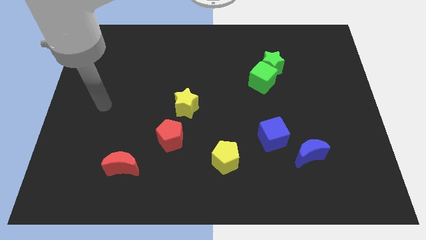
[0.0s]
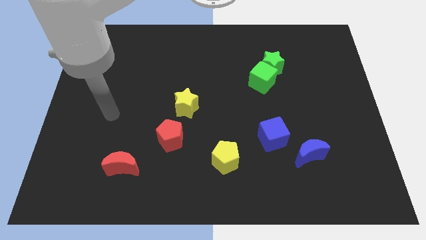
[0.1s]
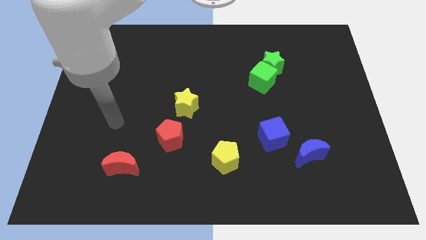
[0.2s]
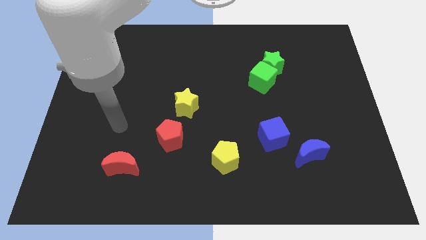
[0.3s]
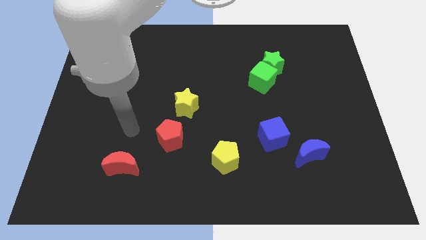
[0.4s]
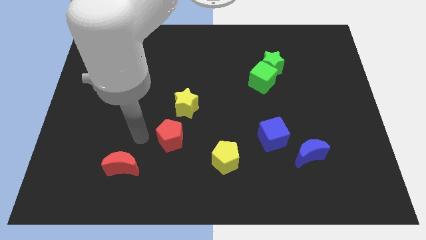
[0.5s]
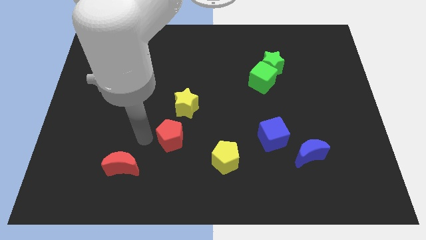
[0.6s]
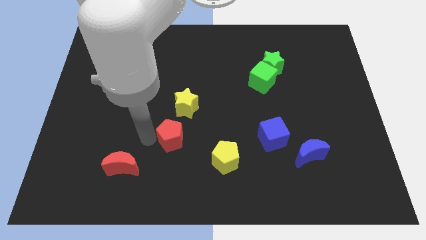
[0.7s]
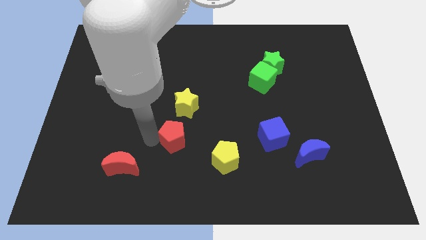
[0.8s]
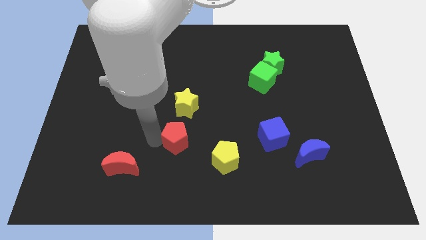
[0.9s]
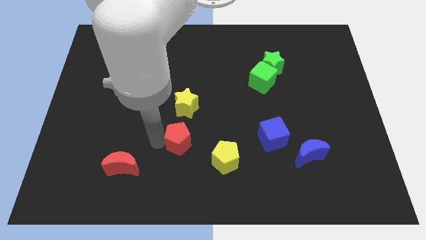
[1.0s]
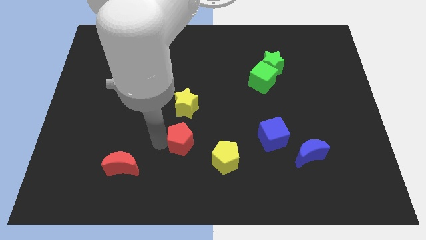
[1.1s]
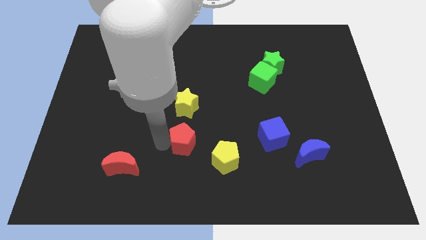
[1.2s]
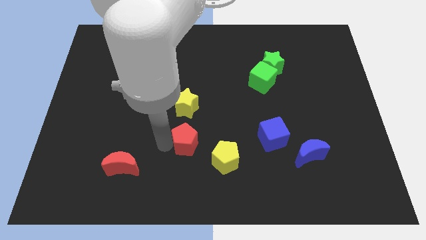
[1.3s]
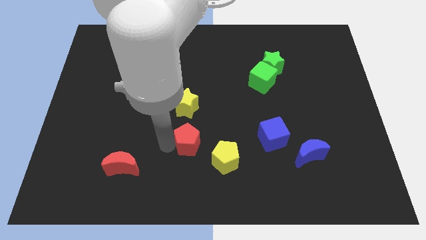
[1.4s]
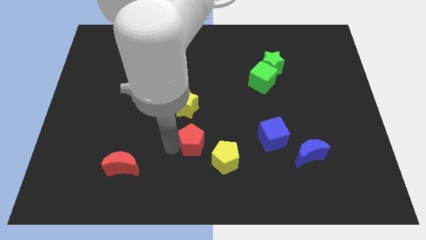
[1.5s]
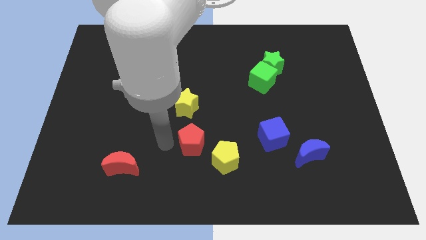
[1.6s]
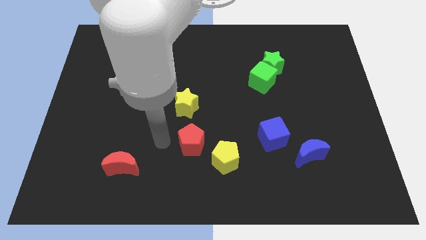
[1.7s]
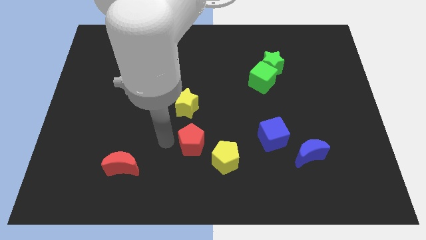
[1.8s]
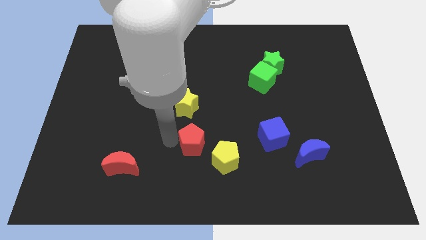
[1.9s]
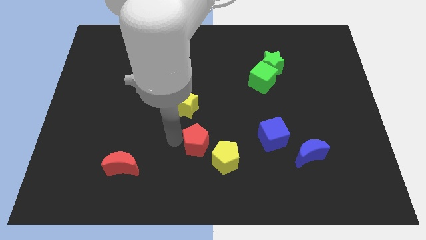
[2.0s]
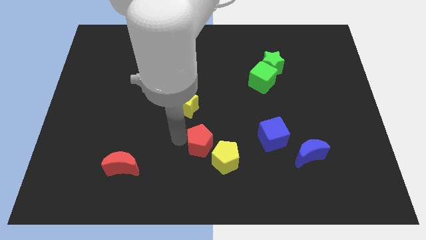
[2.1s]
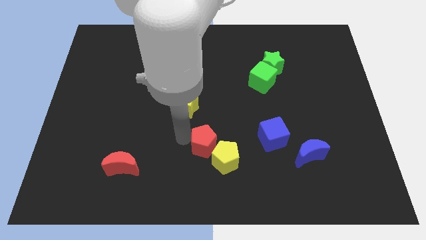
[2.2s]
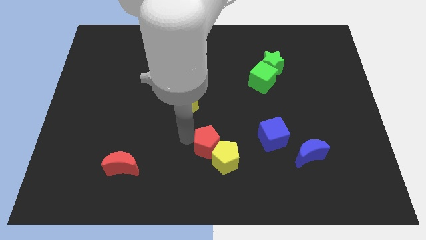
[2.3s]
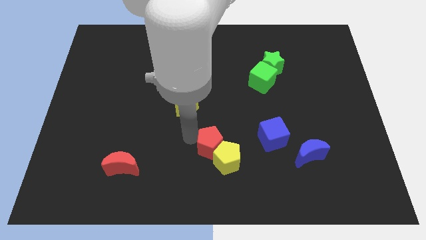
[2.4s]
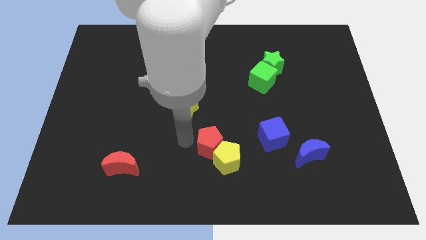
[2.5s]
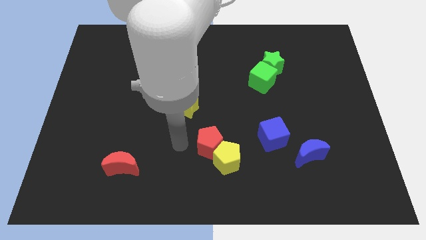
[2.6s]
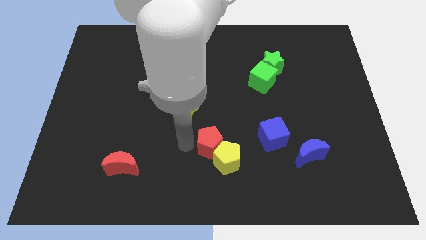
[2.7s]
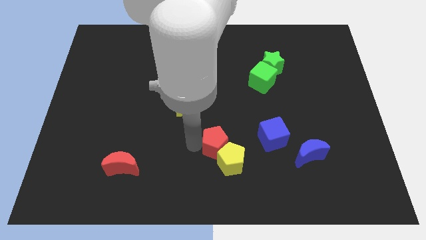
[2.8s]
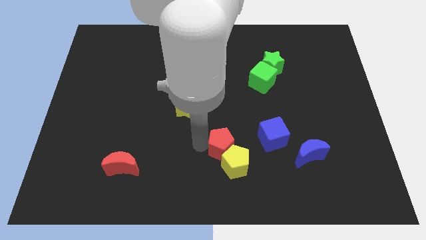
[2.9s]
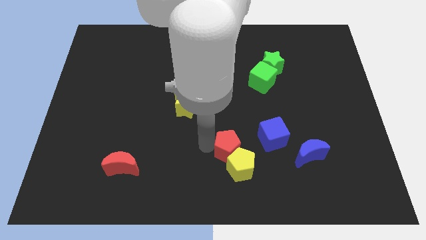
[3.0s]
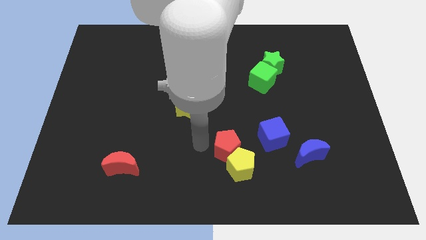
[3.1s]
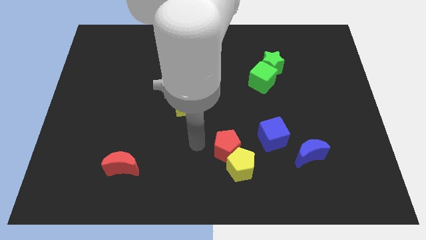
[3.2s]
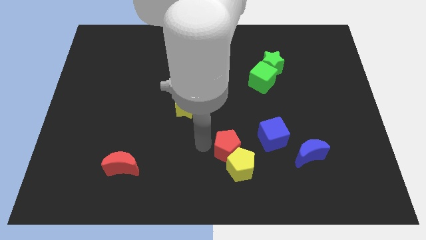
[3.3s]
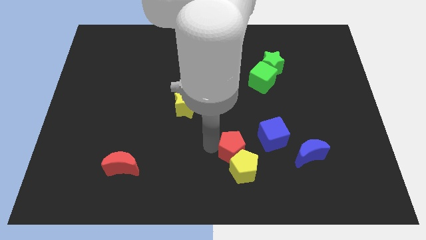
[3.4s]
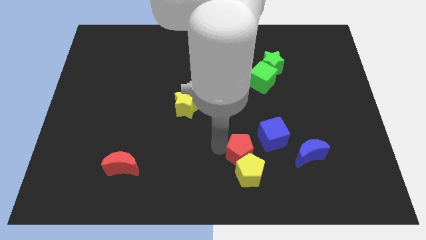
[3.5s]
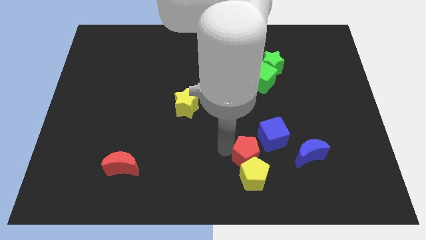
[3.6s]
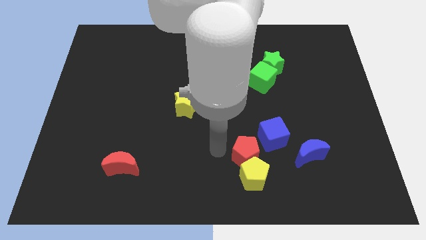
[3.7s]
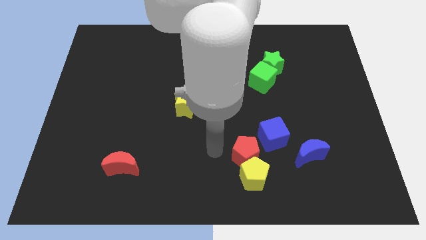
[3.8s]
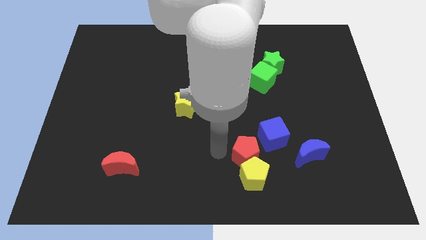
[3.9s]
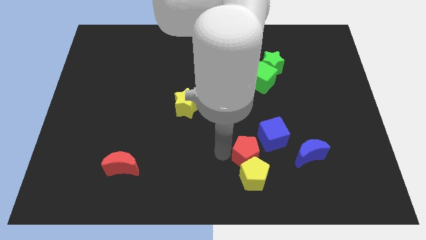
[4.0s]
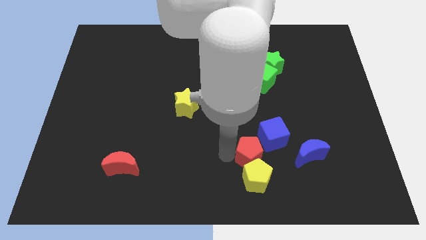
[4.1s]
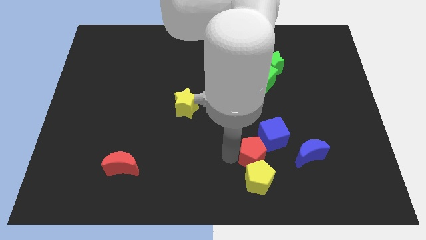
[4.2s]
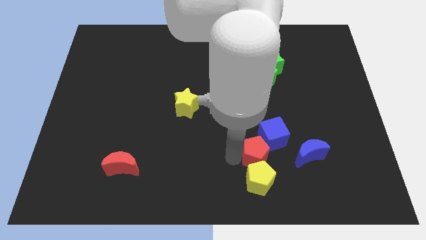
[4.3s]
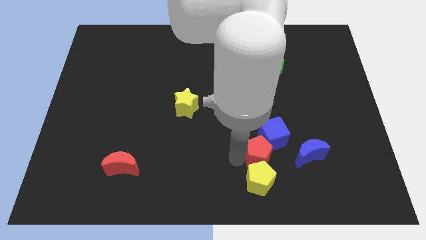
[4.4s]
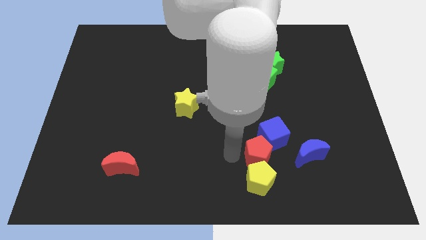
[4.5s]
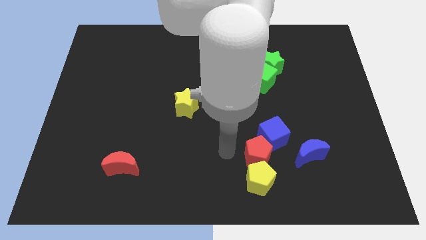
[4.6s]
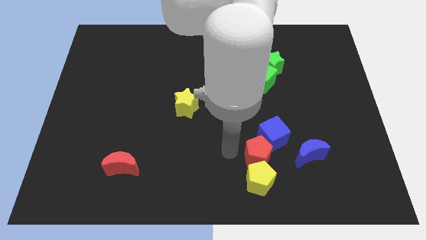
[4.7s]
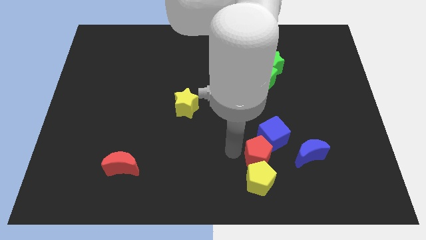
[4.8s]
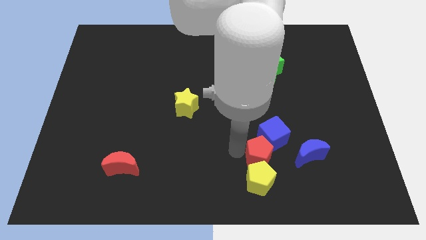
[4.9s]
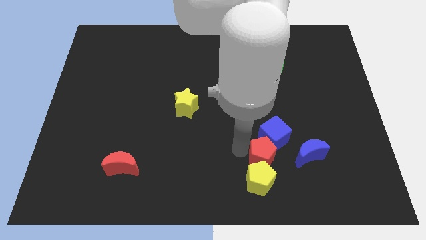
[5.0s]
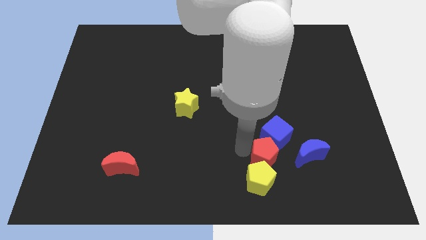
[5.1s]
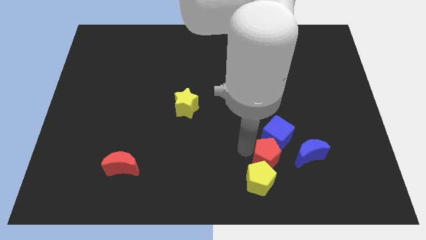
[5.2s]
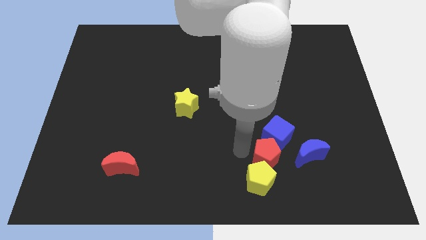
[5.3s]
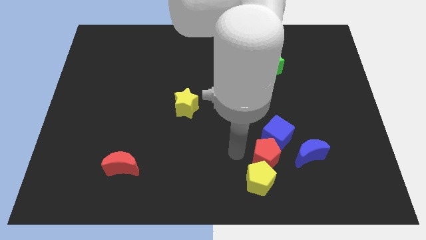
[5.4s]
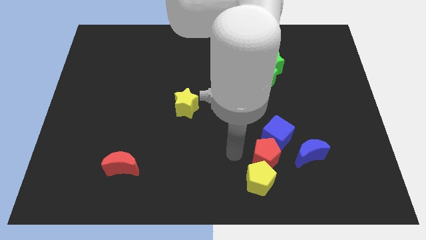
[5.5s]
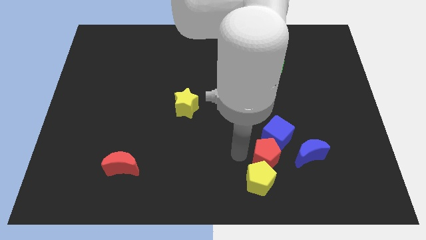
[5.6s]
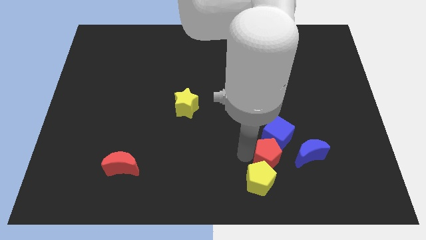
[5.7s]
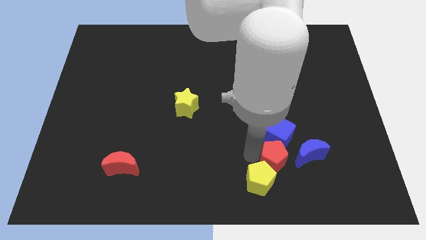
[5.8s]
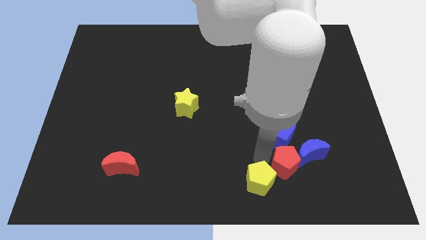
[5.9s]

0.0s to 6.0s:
move the red pentagon towards the blue moon

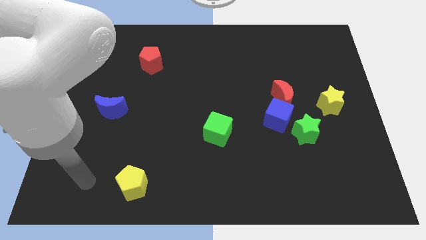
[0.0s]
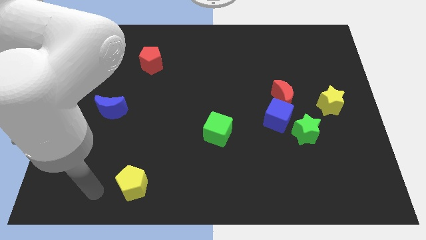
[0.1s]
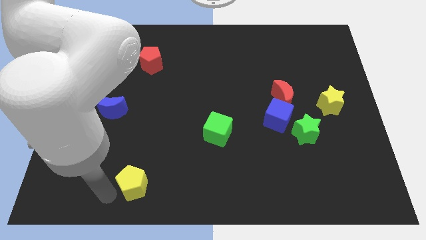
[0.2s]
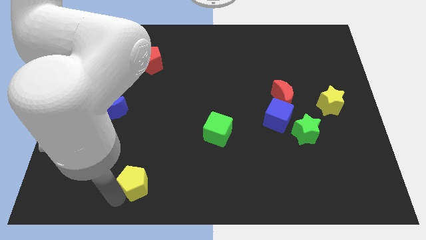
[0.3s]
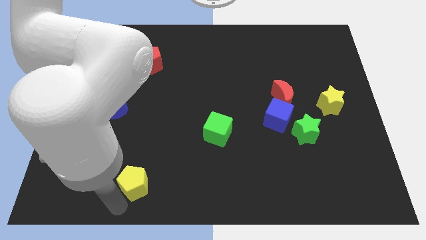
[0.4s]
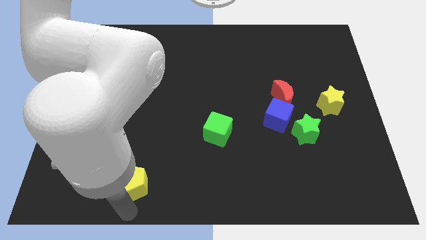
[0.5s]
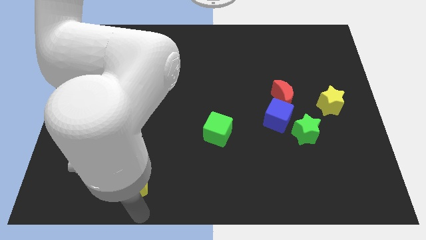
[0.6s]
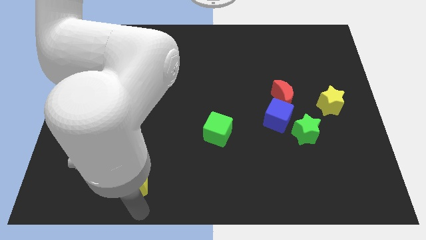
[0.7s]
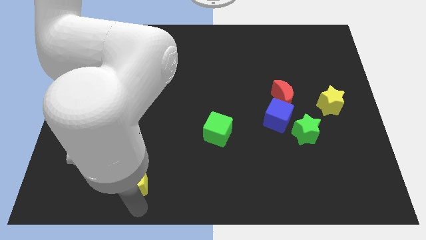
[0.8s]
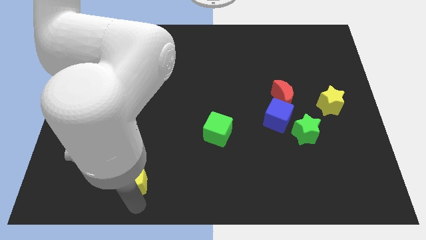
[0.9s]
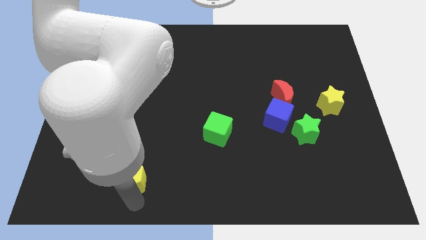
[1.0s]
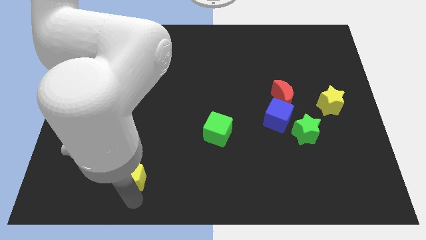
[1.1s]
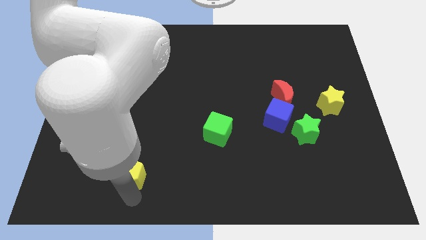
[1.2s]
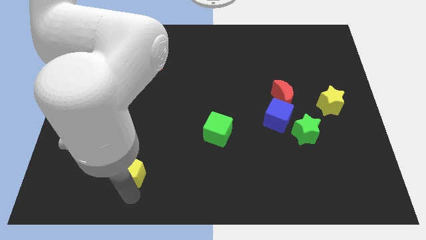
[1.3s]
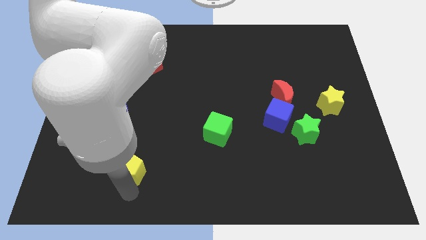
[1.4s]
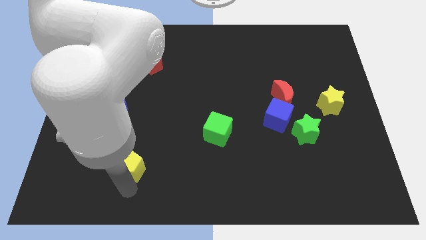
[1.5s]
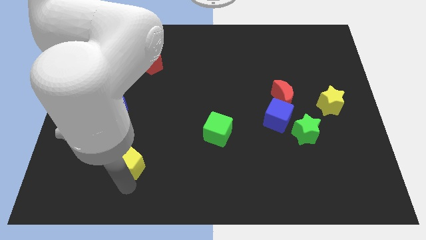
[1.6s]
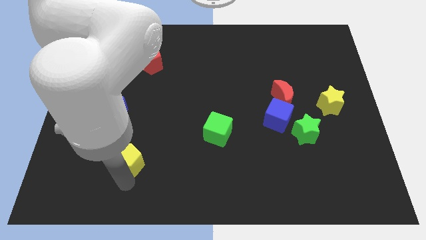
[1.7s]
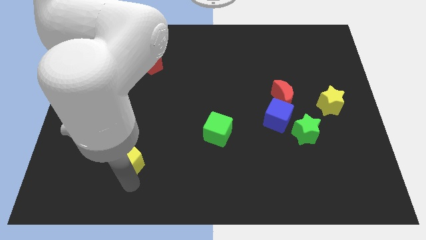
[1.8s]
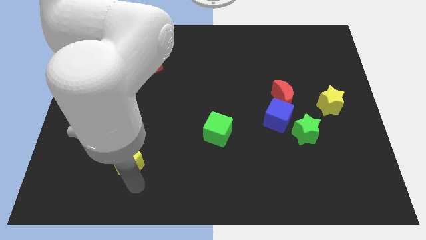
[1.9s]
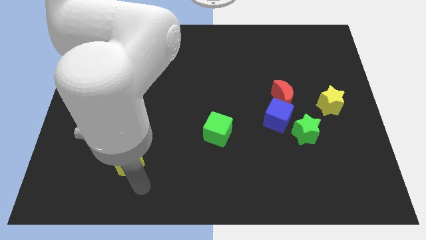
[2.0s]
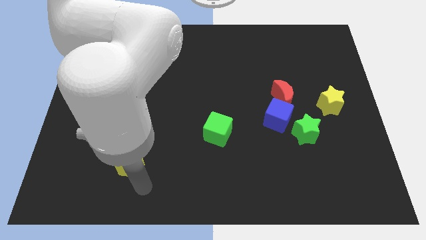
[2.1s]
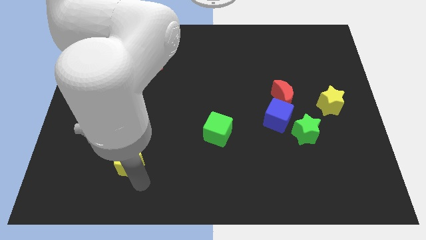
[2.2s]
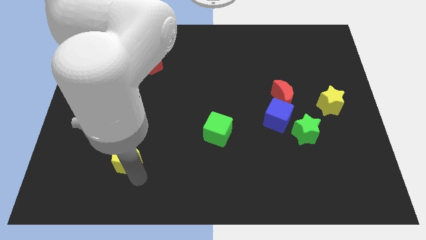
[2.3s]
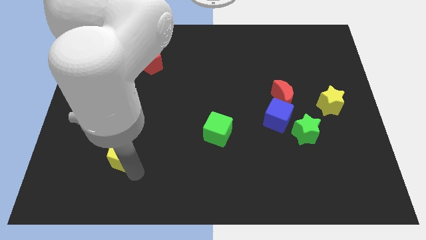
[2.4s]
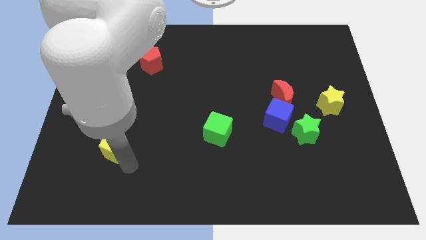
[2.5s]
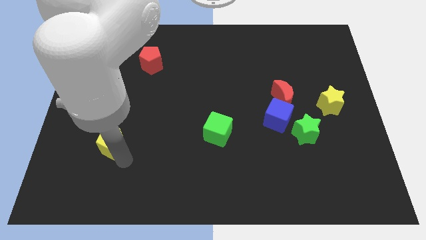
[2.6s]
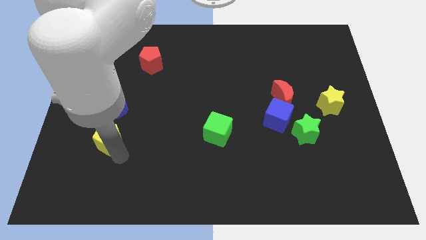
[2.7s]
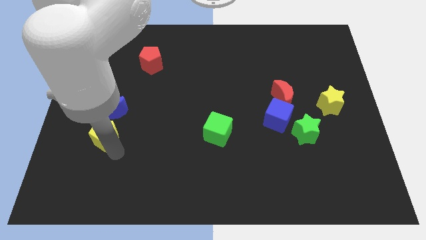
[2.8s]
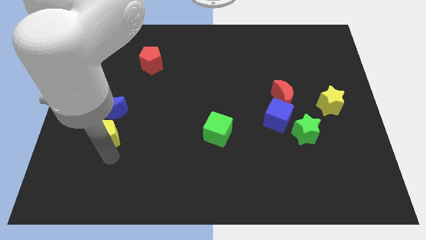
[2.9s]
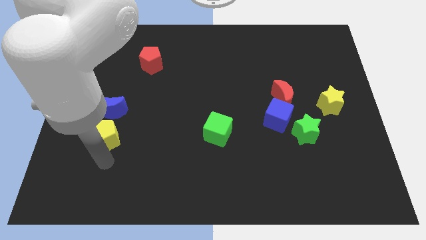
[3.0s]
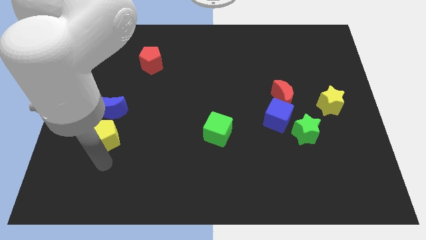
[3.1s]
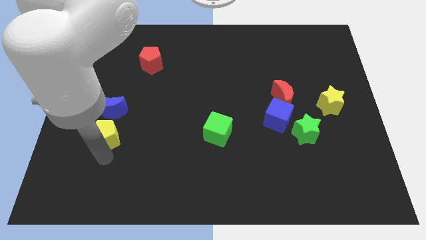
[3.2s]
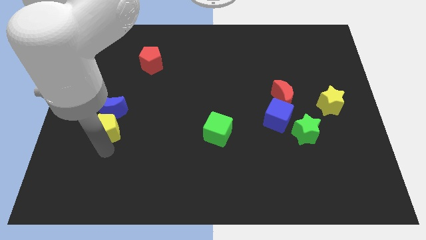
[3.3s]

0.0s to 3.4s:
move the yellow pentagon to the blue moon
